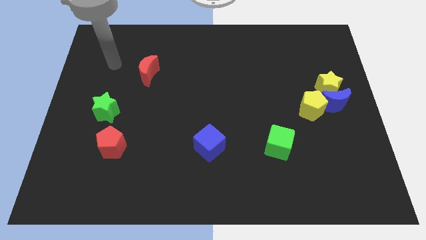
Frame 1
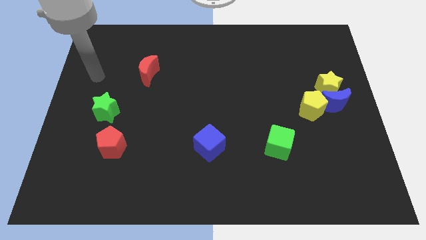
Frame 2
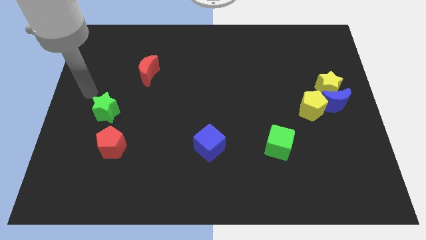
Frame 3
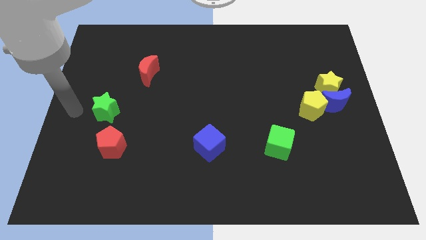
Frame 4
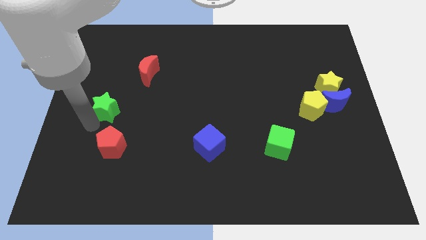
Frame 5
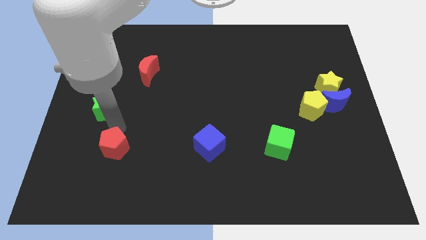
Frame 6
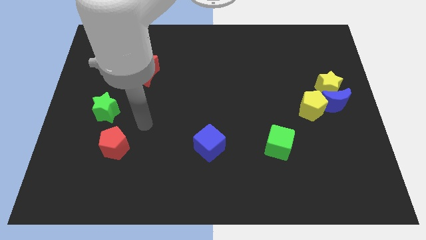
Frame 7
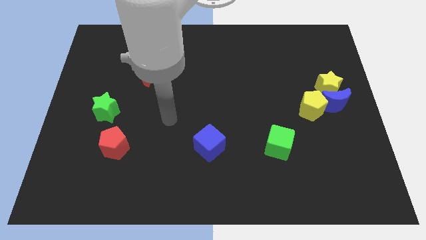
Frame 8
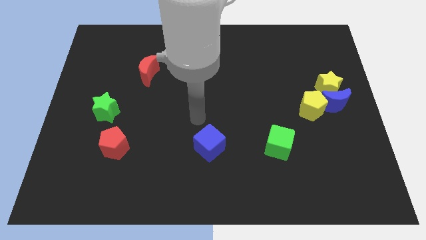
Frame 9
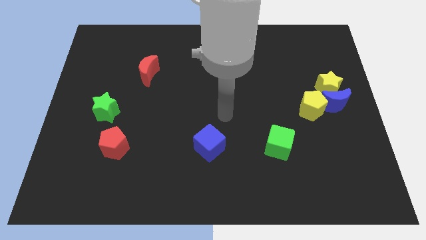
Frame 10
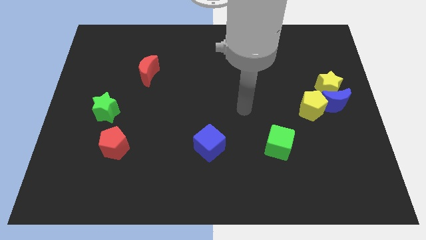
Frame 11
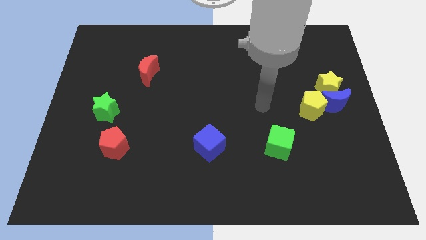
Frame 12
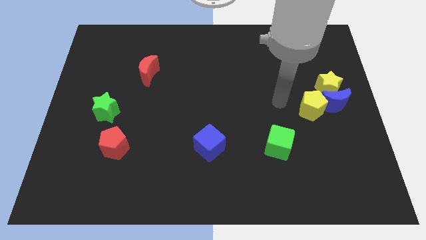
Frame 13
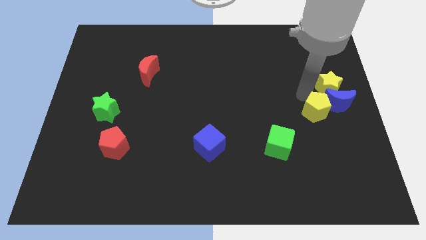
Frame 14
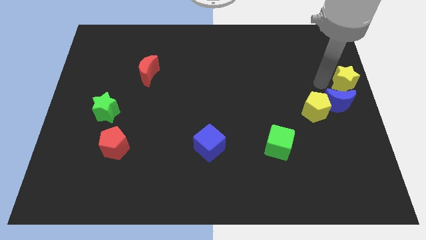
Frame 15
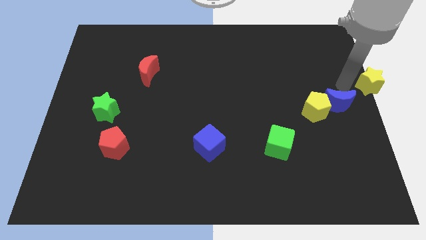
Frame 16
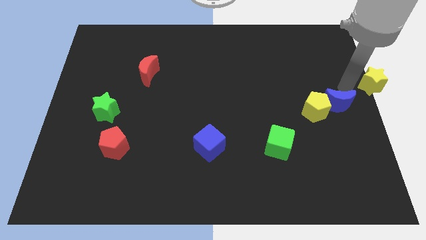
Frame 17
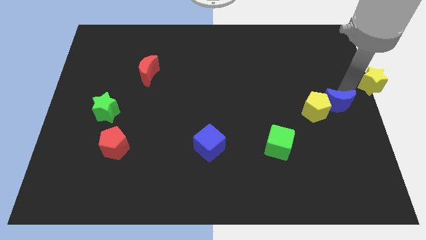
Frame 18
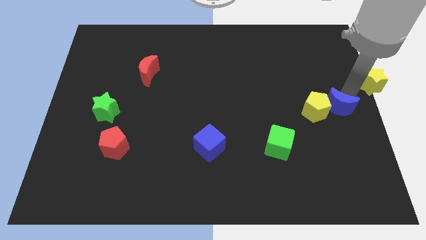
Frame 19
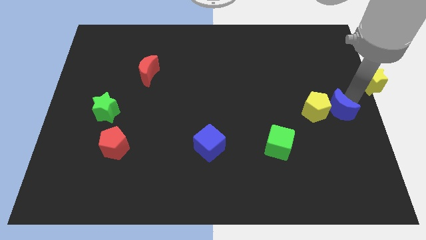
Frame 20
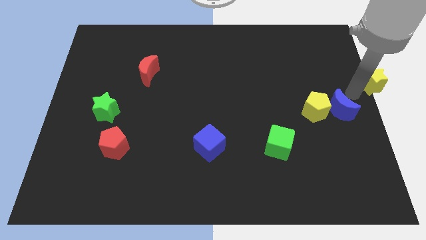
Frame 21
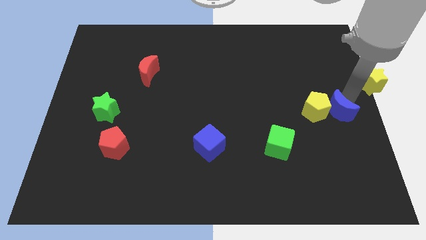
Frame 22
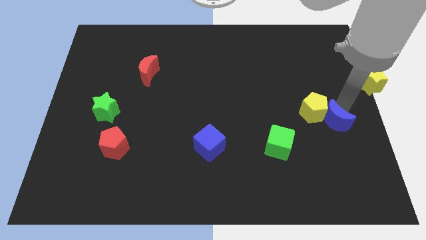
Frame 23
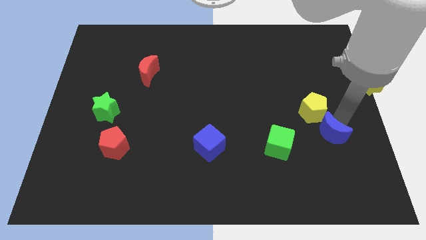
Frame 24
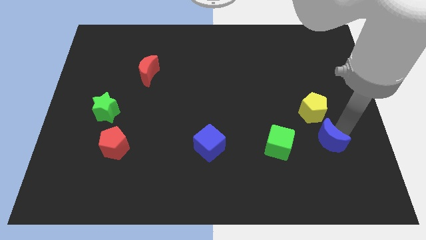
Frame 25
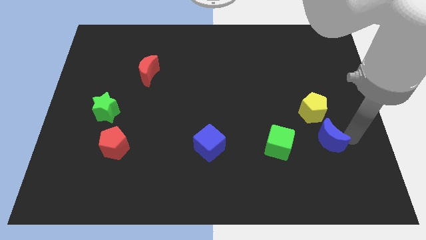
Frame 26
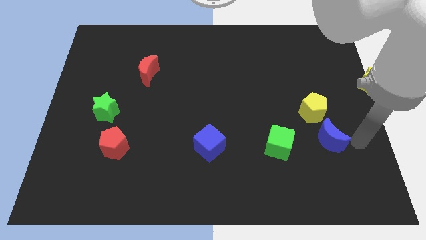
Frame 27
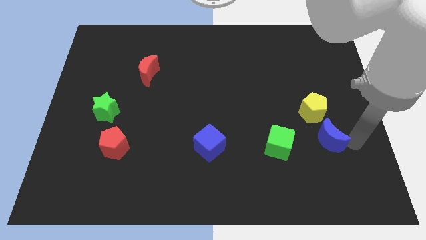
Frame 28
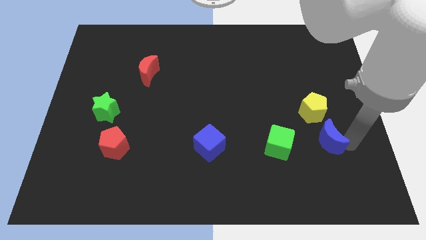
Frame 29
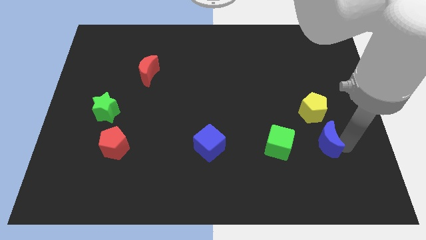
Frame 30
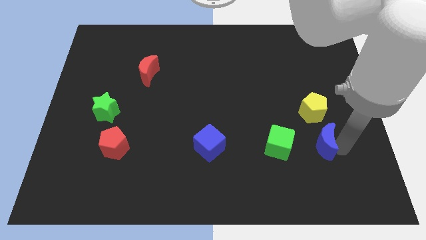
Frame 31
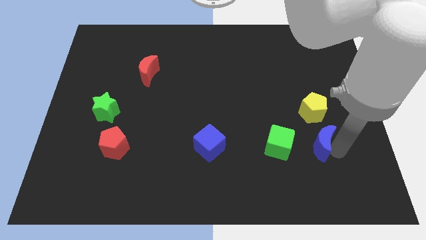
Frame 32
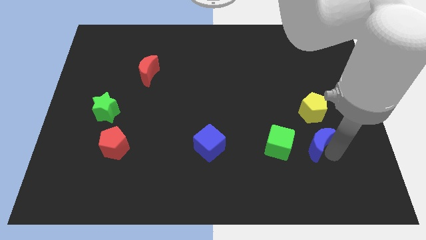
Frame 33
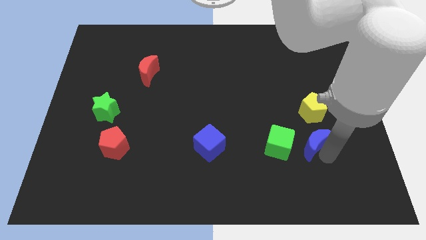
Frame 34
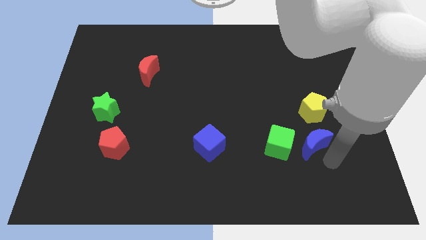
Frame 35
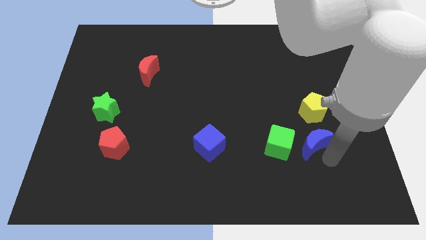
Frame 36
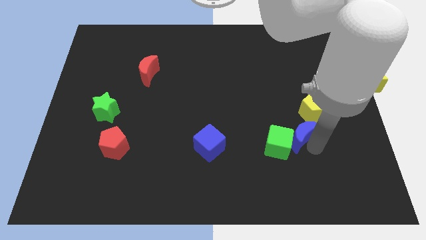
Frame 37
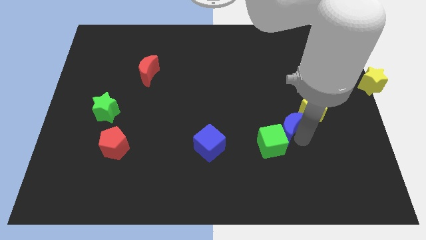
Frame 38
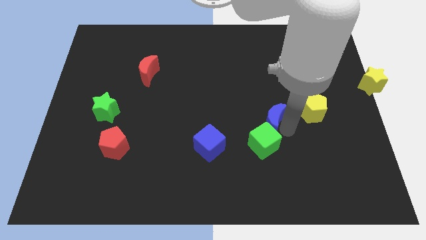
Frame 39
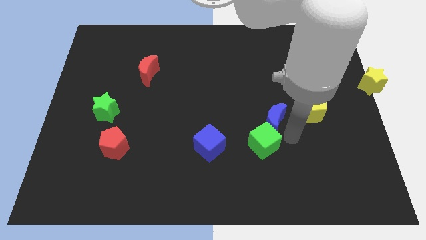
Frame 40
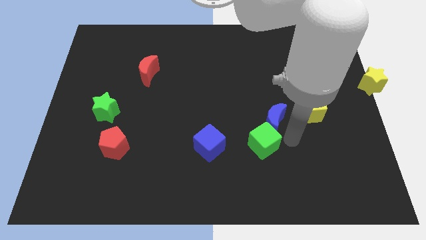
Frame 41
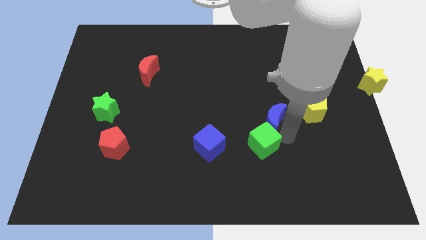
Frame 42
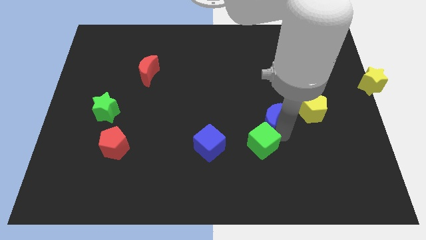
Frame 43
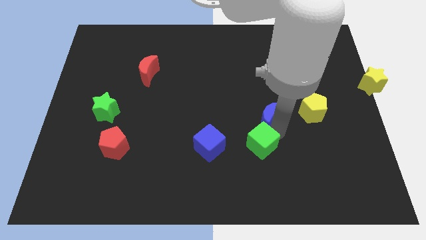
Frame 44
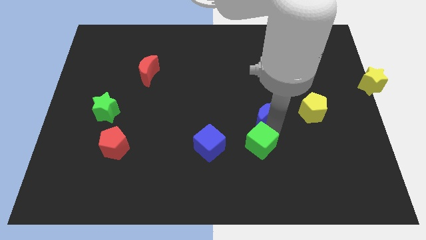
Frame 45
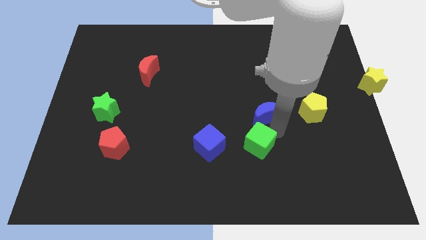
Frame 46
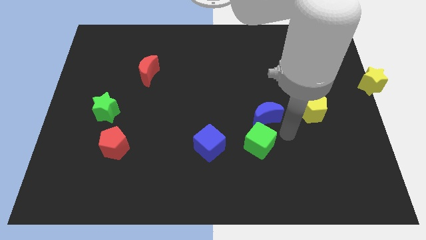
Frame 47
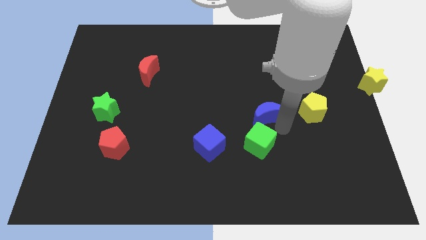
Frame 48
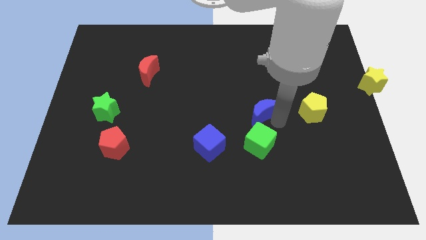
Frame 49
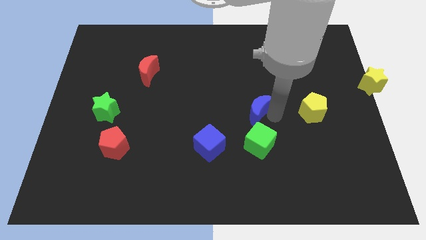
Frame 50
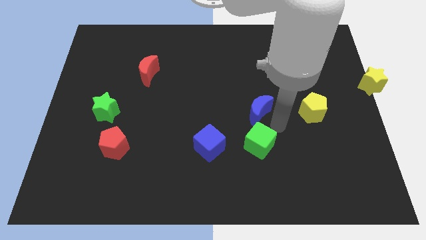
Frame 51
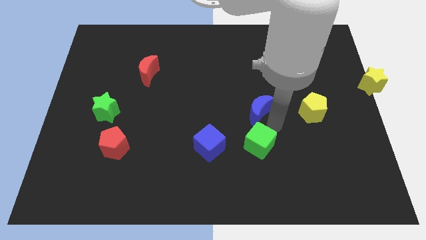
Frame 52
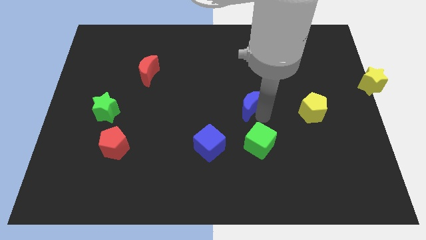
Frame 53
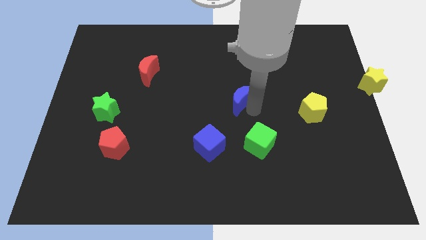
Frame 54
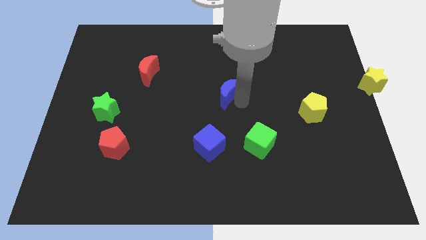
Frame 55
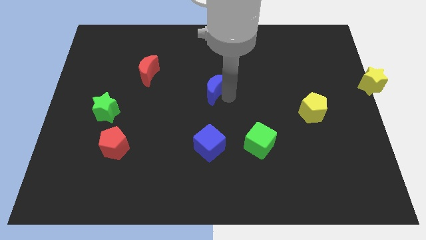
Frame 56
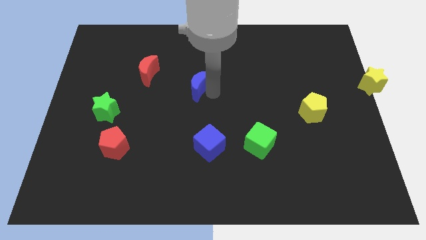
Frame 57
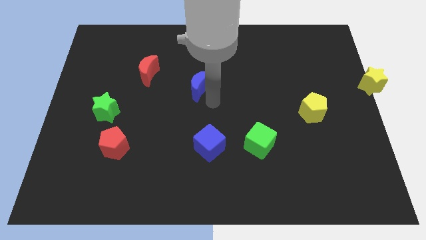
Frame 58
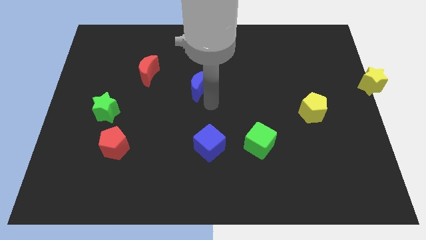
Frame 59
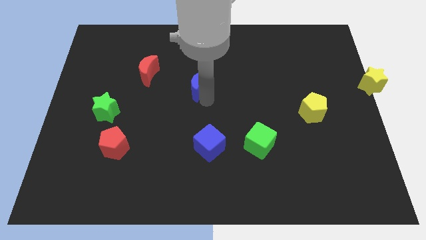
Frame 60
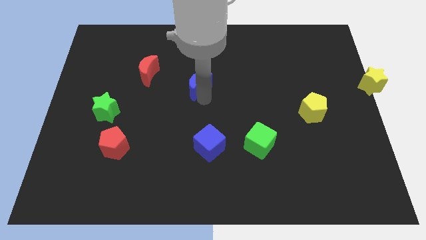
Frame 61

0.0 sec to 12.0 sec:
slide the blue moon just right of the red moon

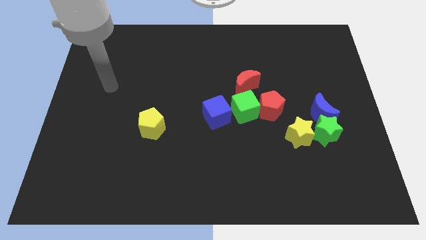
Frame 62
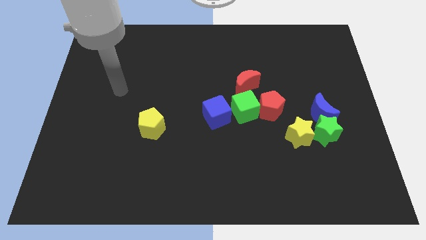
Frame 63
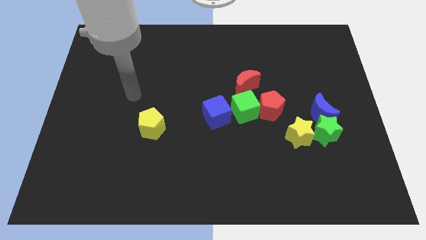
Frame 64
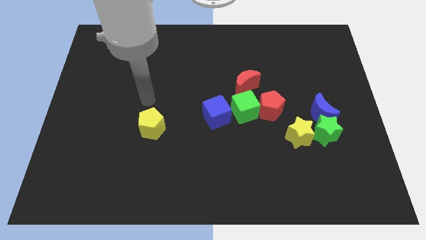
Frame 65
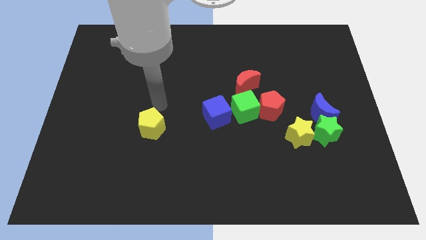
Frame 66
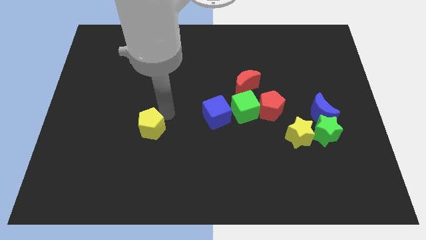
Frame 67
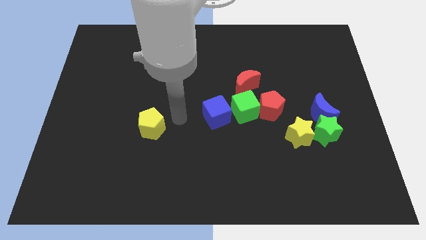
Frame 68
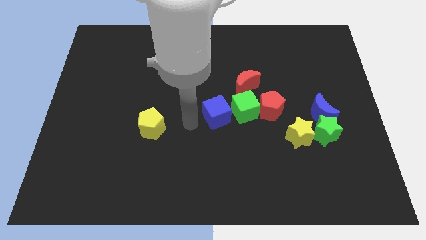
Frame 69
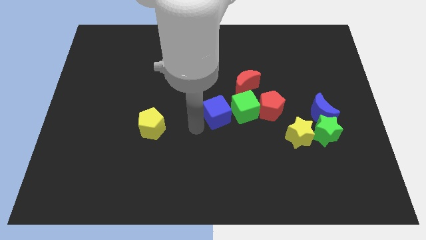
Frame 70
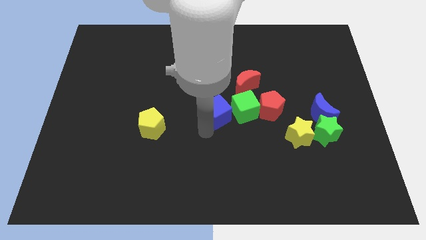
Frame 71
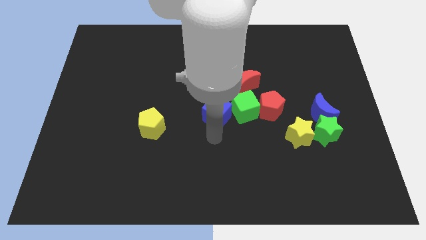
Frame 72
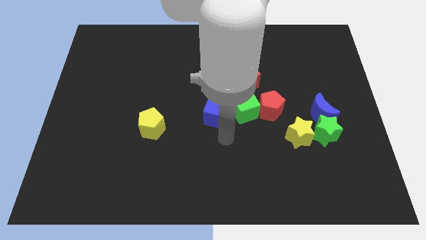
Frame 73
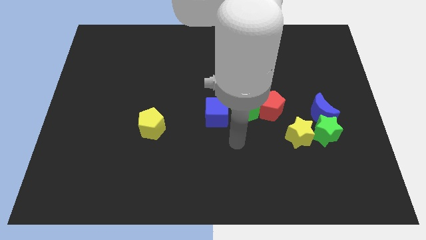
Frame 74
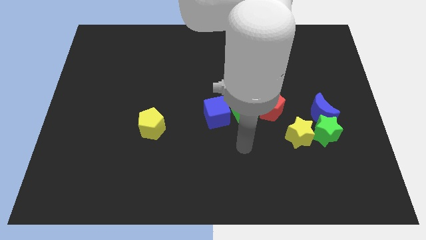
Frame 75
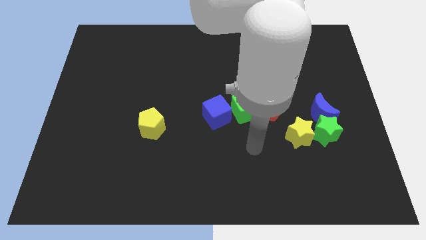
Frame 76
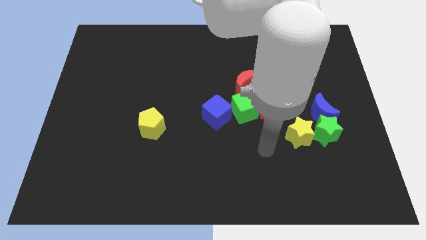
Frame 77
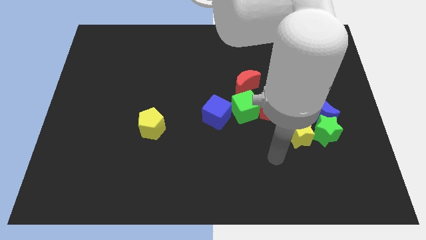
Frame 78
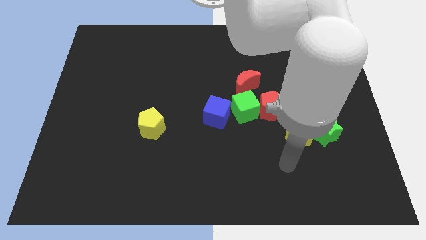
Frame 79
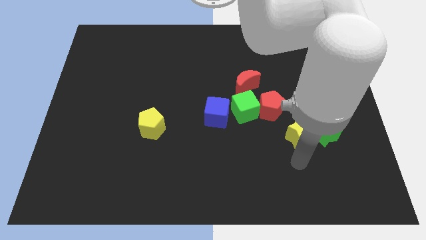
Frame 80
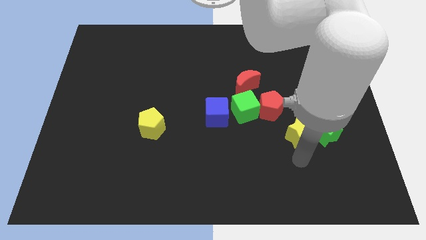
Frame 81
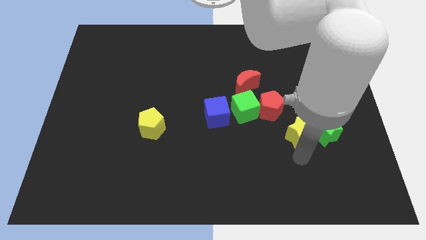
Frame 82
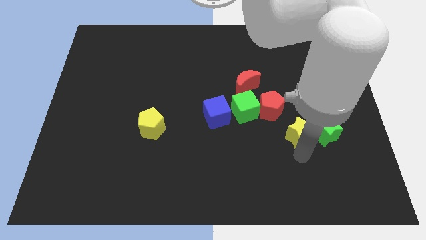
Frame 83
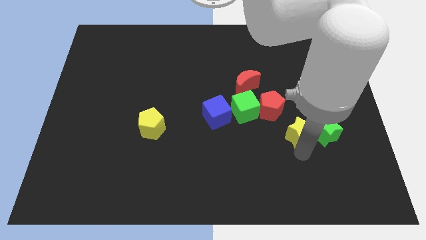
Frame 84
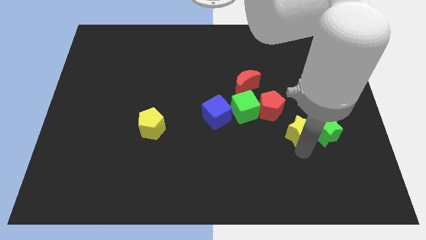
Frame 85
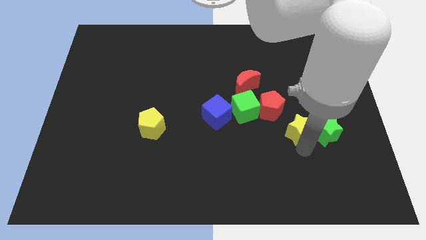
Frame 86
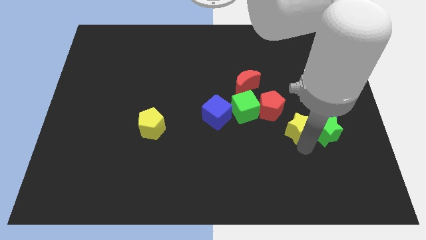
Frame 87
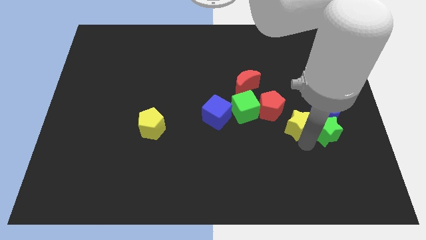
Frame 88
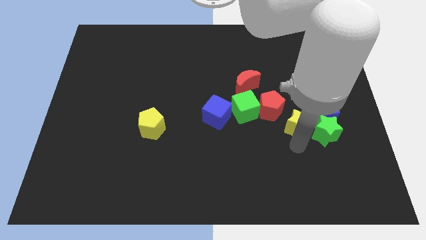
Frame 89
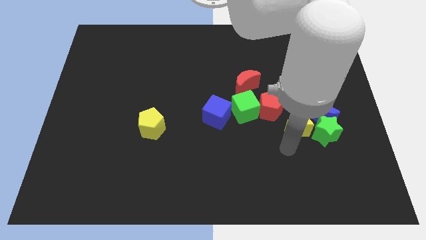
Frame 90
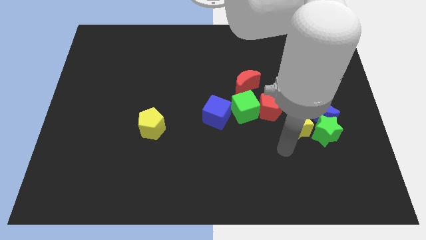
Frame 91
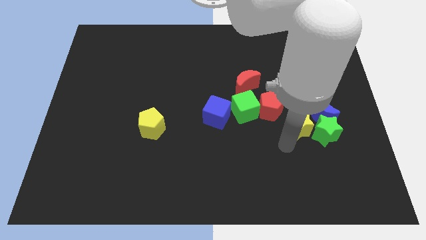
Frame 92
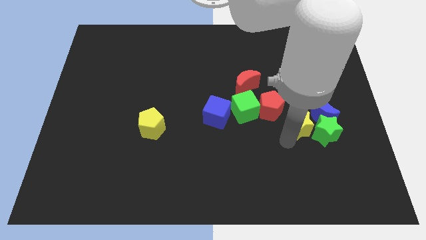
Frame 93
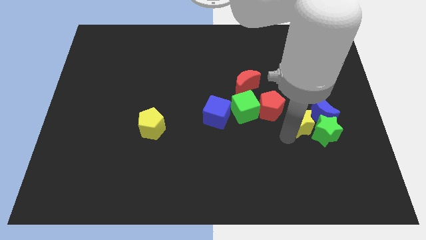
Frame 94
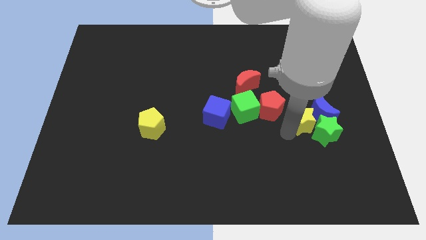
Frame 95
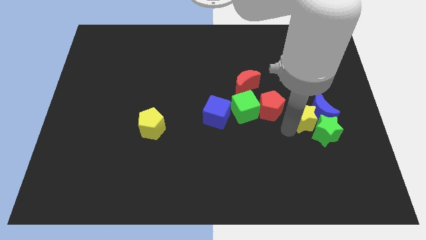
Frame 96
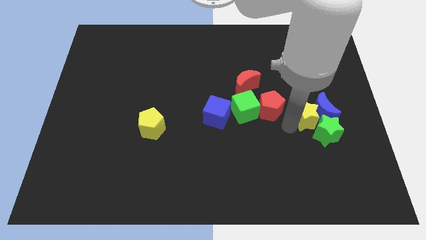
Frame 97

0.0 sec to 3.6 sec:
push the yellow star to the top side of the green star
